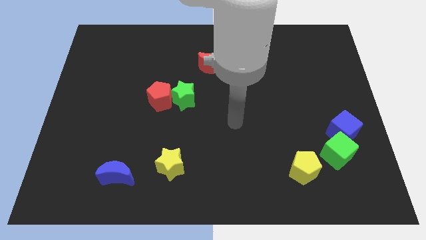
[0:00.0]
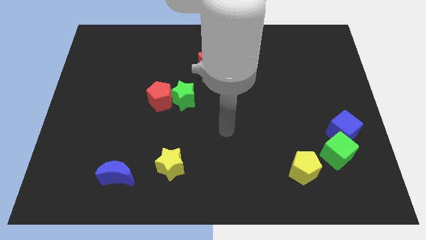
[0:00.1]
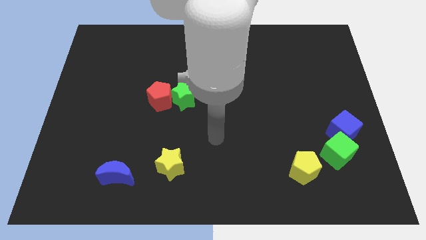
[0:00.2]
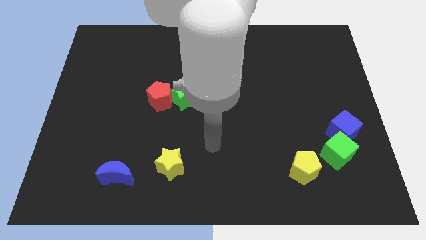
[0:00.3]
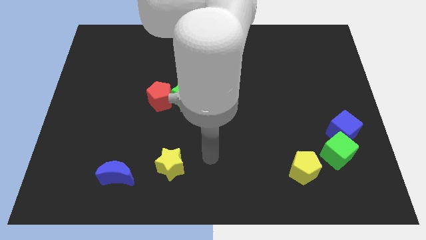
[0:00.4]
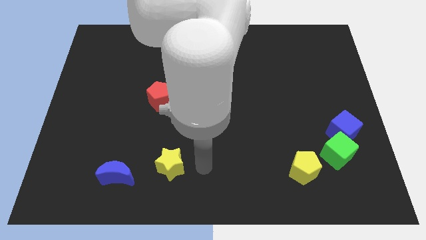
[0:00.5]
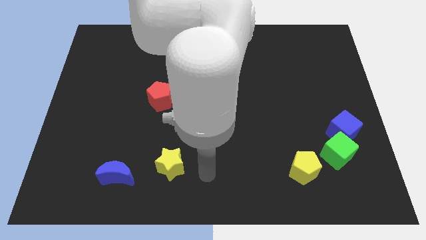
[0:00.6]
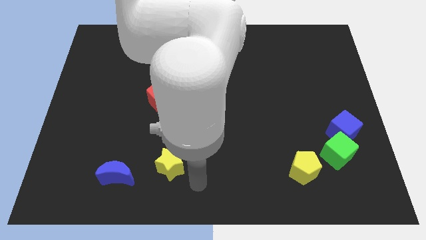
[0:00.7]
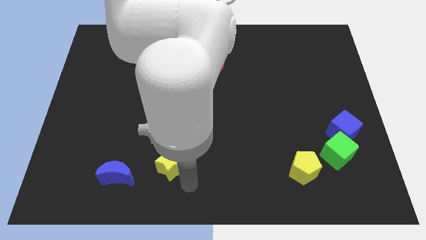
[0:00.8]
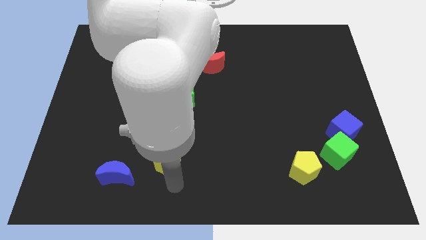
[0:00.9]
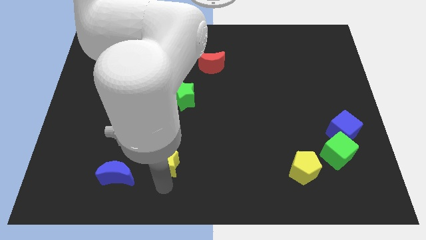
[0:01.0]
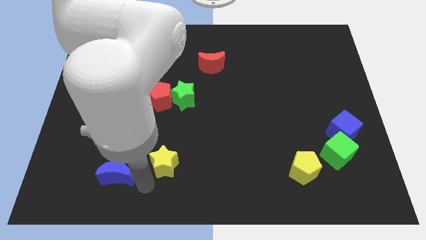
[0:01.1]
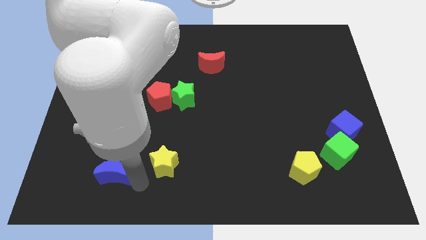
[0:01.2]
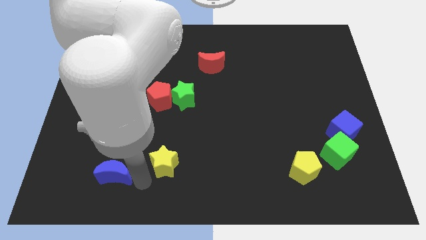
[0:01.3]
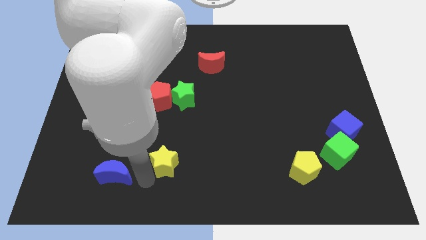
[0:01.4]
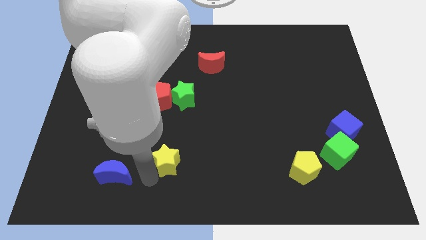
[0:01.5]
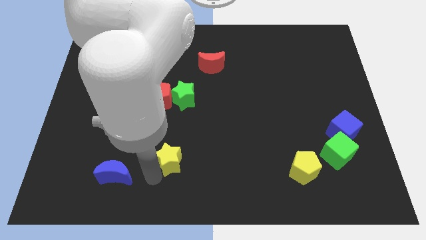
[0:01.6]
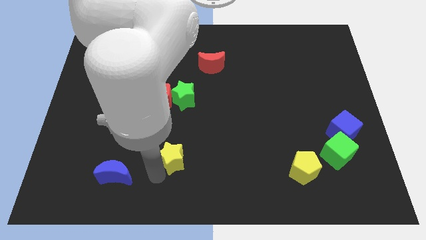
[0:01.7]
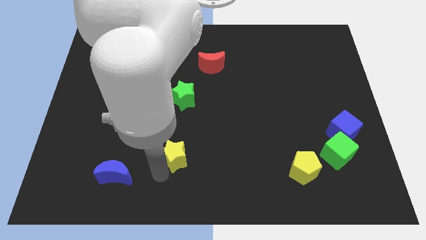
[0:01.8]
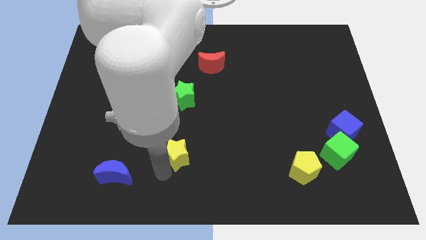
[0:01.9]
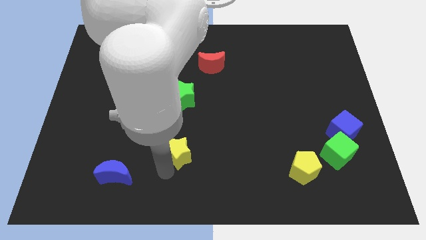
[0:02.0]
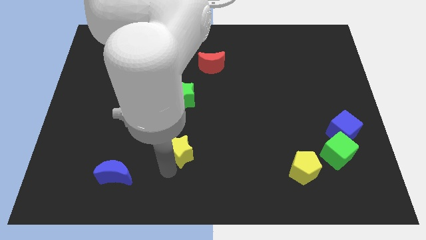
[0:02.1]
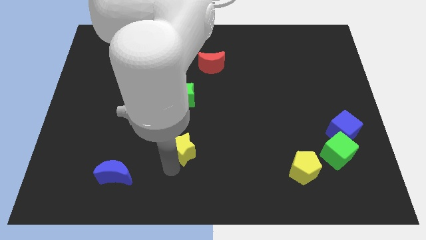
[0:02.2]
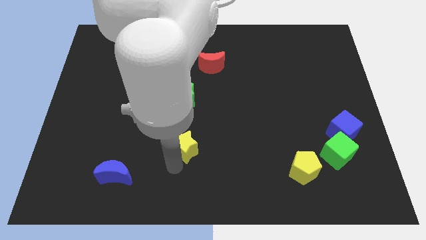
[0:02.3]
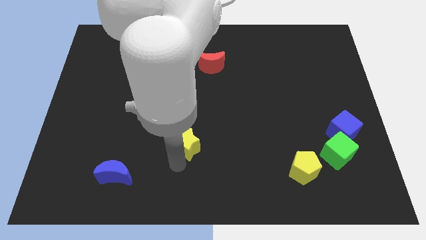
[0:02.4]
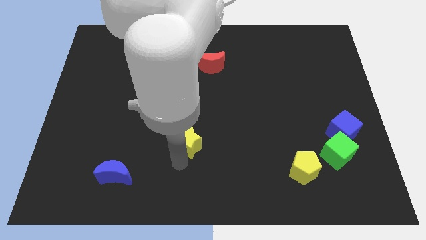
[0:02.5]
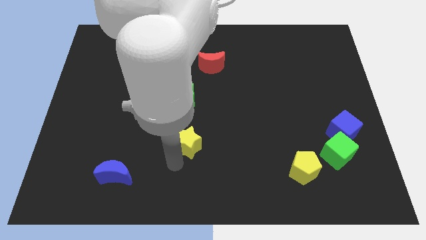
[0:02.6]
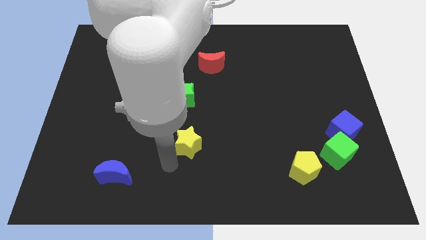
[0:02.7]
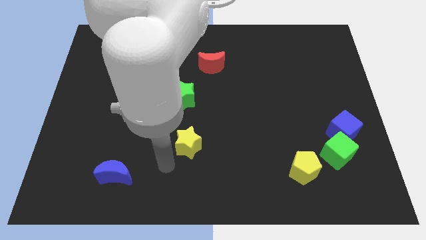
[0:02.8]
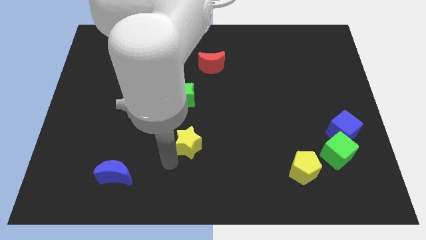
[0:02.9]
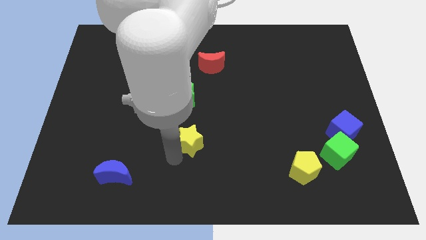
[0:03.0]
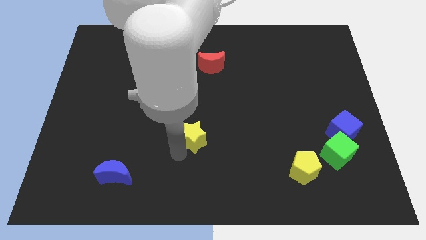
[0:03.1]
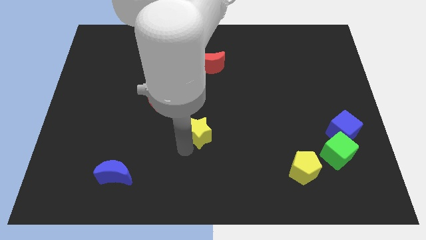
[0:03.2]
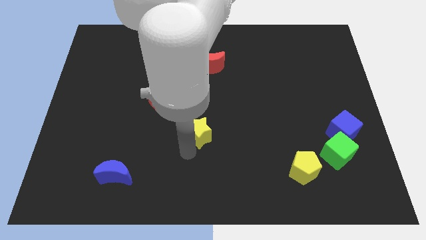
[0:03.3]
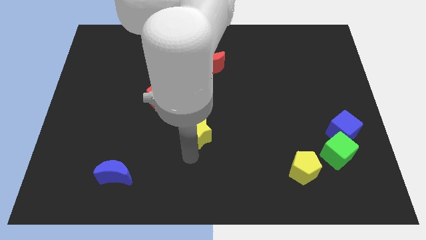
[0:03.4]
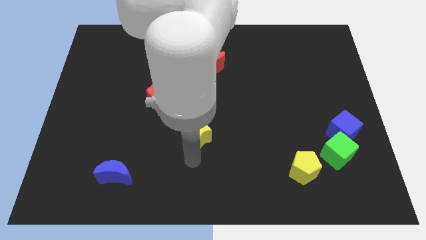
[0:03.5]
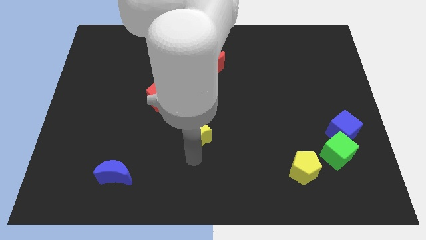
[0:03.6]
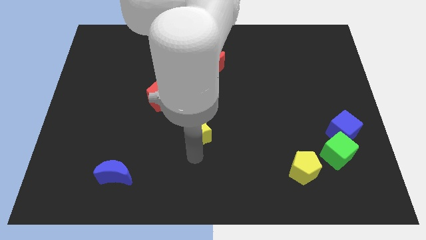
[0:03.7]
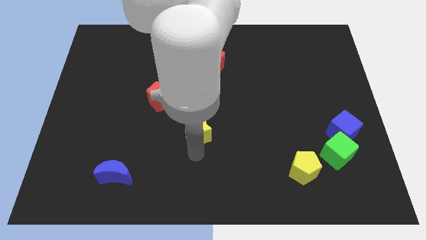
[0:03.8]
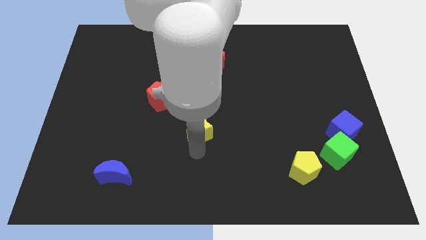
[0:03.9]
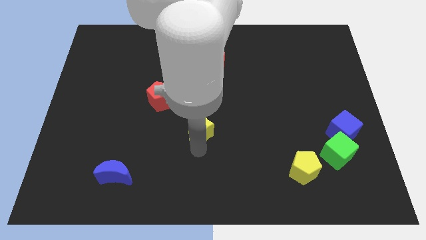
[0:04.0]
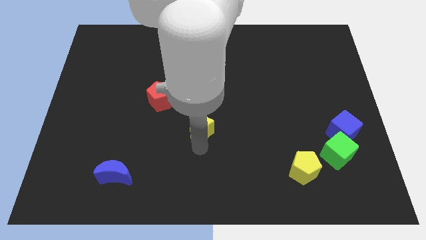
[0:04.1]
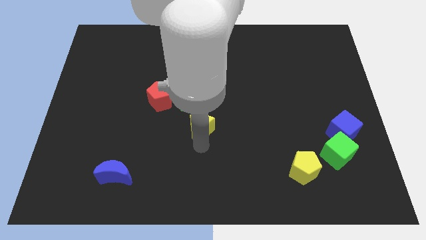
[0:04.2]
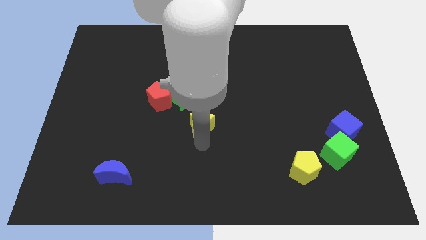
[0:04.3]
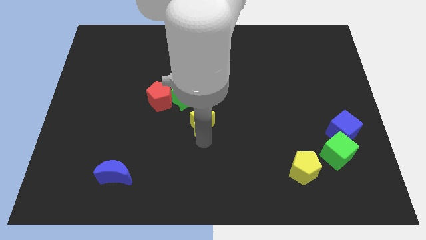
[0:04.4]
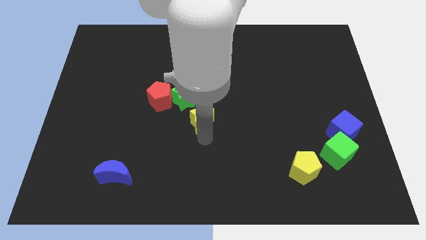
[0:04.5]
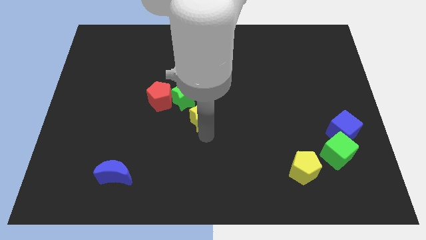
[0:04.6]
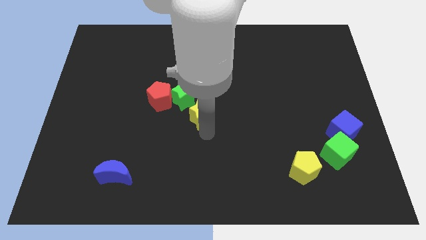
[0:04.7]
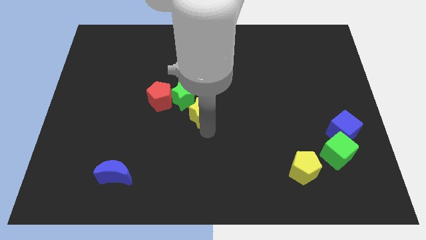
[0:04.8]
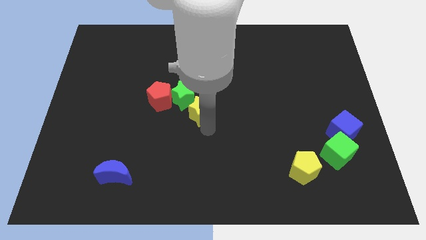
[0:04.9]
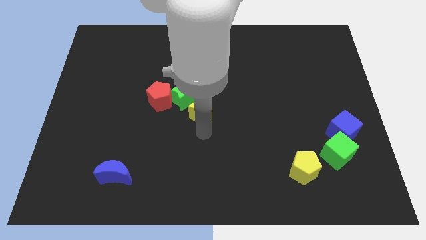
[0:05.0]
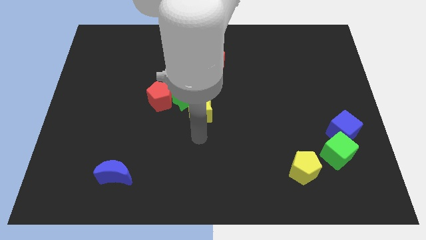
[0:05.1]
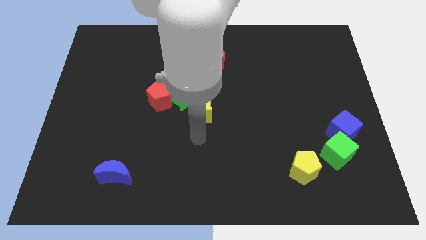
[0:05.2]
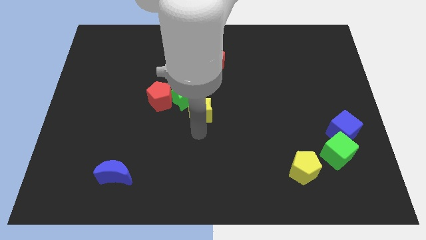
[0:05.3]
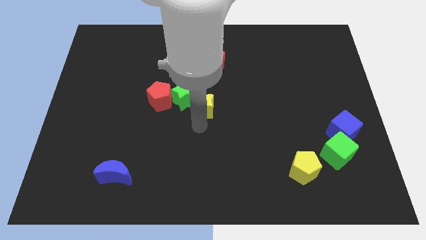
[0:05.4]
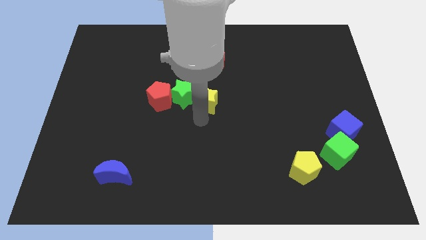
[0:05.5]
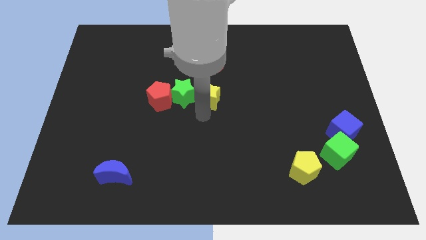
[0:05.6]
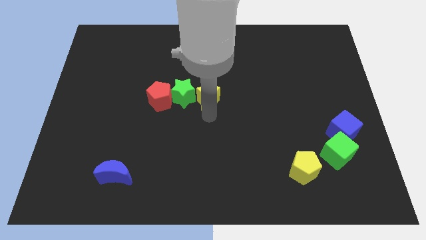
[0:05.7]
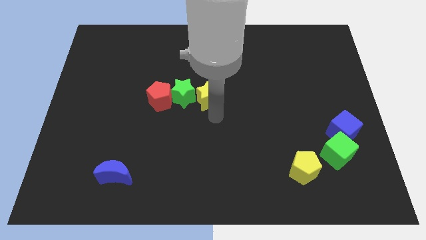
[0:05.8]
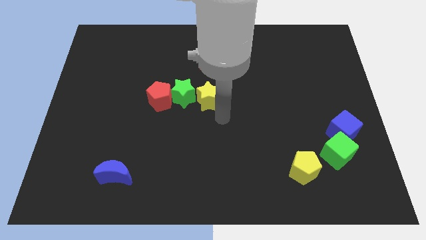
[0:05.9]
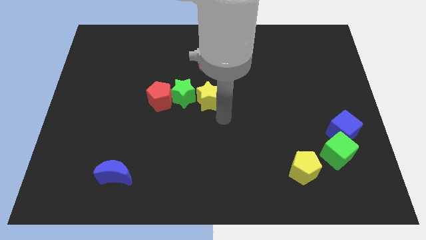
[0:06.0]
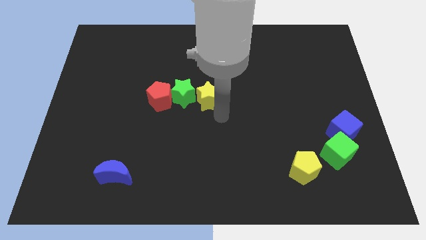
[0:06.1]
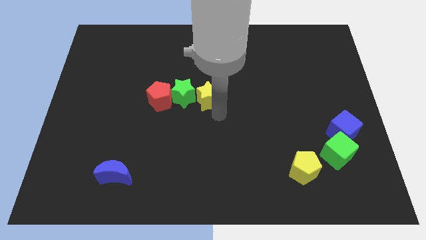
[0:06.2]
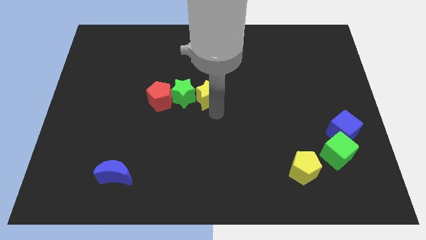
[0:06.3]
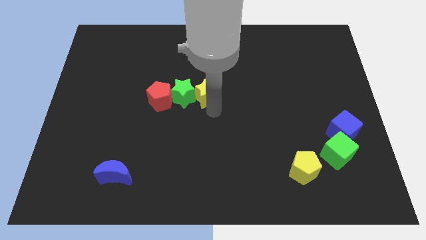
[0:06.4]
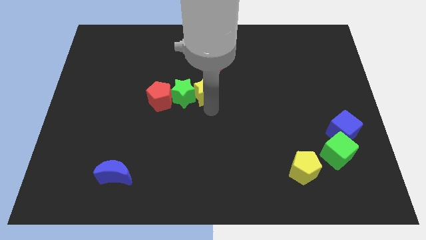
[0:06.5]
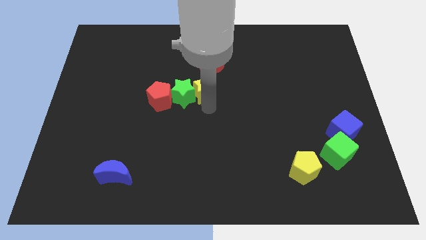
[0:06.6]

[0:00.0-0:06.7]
move the yellow star to the bottom left of the red moon
